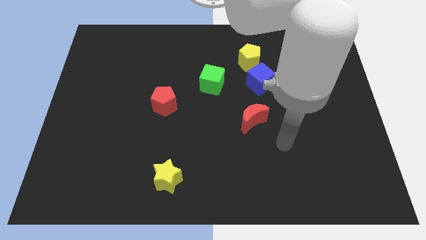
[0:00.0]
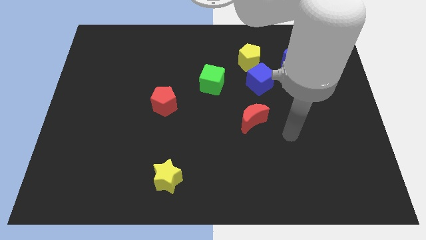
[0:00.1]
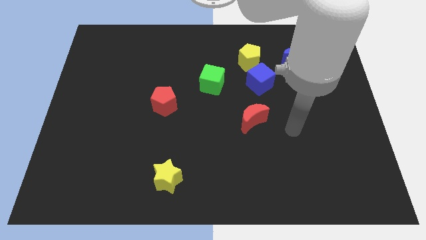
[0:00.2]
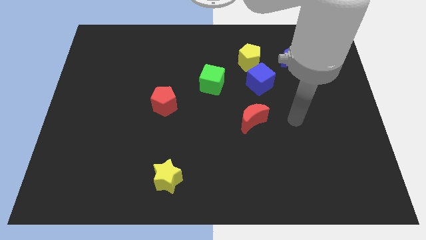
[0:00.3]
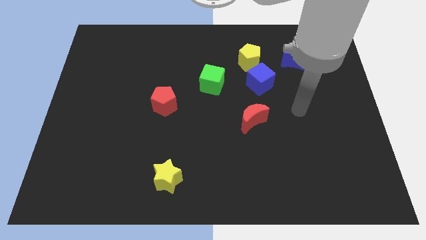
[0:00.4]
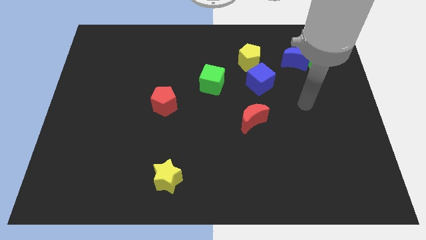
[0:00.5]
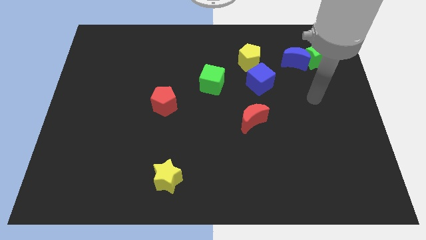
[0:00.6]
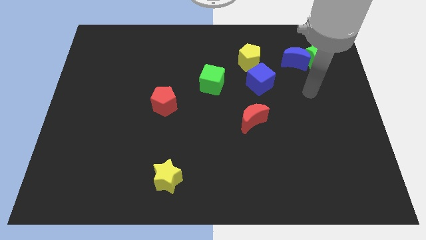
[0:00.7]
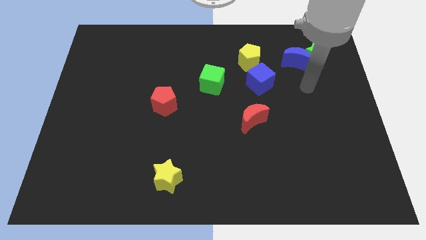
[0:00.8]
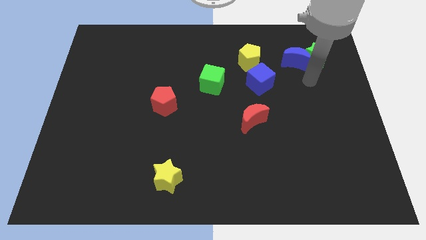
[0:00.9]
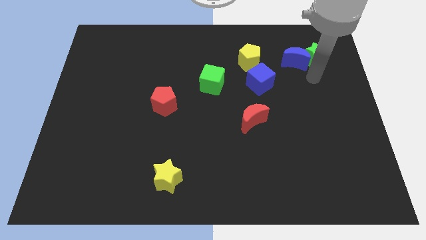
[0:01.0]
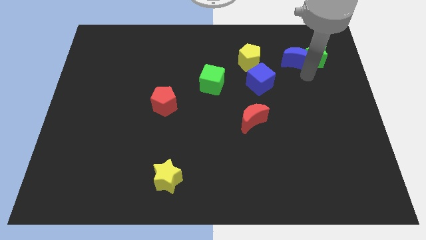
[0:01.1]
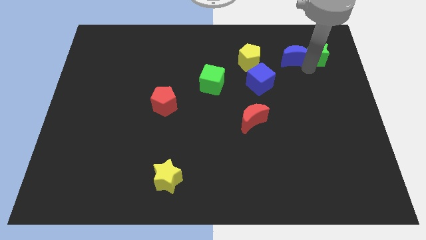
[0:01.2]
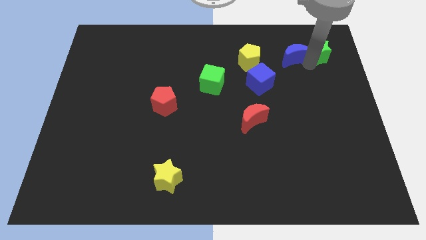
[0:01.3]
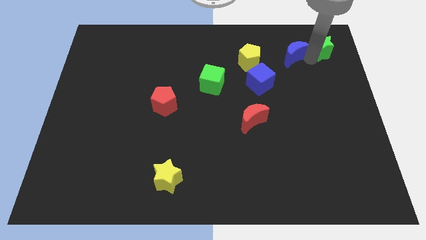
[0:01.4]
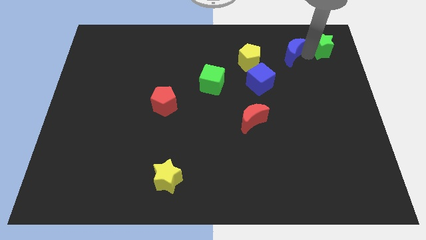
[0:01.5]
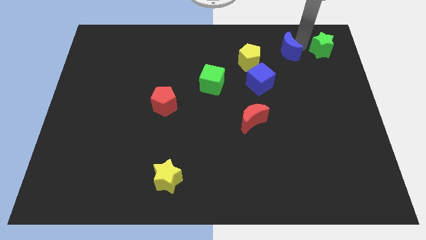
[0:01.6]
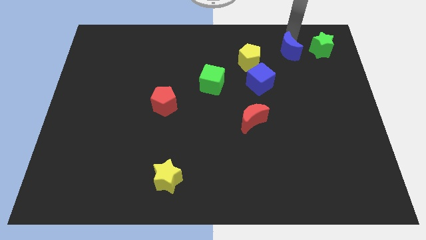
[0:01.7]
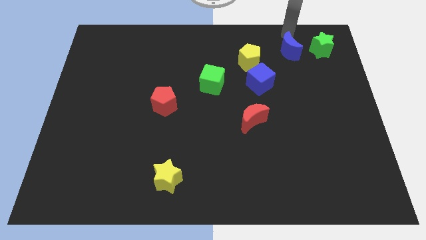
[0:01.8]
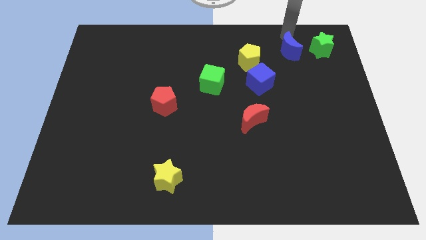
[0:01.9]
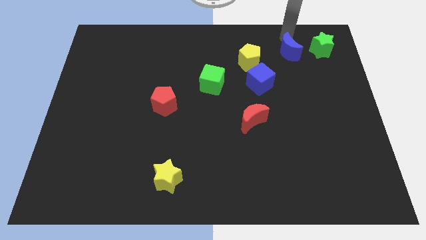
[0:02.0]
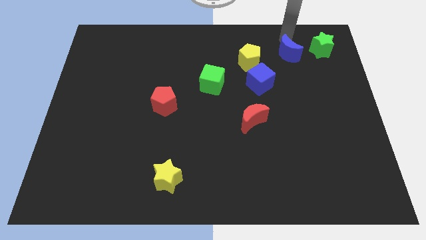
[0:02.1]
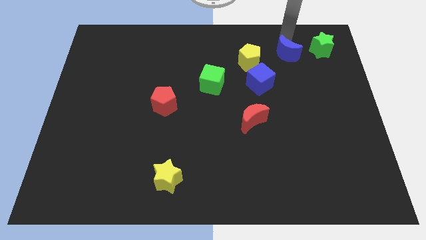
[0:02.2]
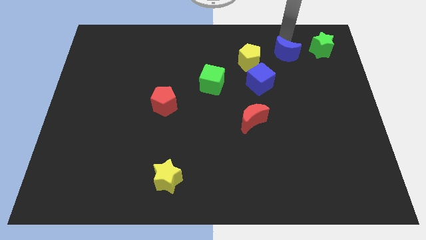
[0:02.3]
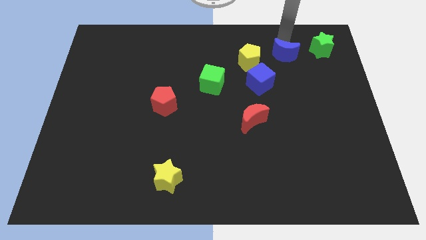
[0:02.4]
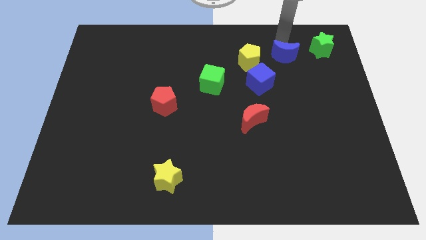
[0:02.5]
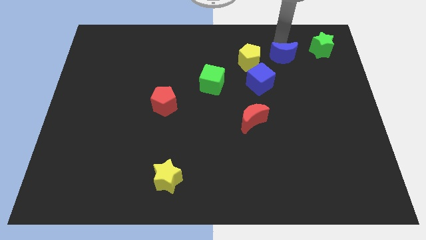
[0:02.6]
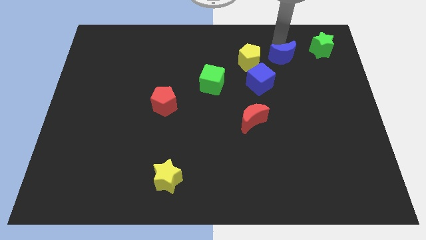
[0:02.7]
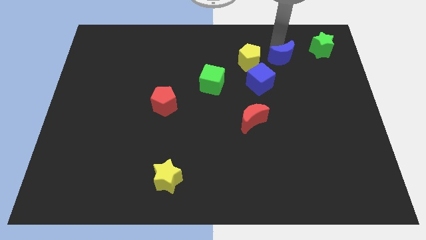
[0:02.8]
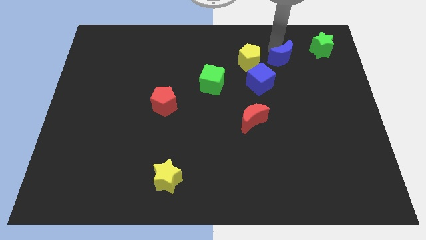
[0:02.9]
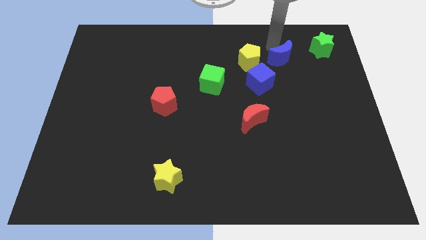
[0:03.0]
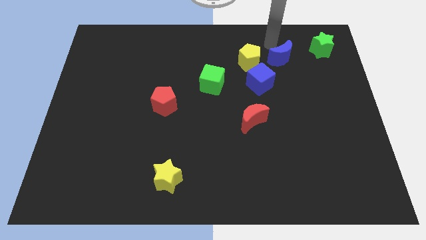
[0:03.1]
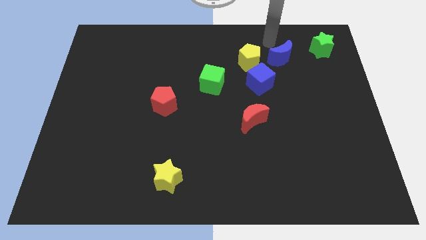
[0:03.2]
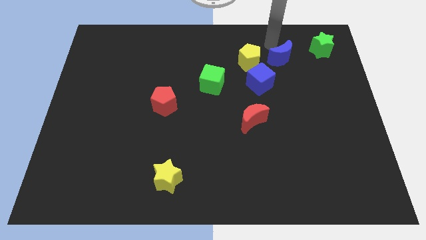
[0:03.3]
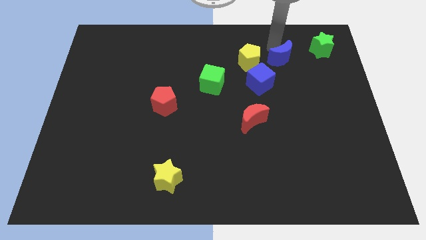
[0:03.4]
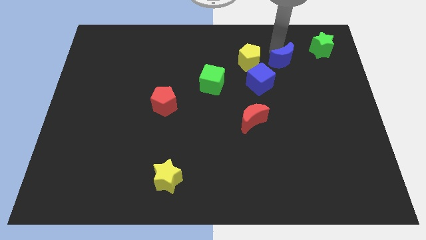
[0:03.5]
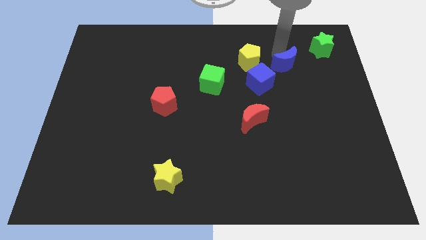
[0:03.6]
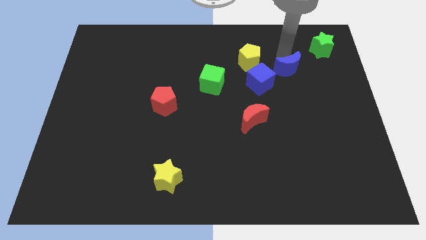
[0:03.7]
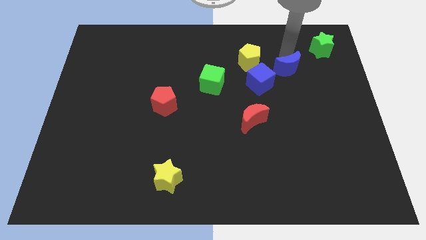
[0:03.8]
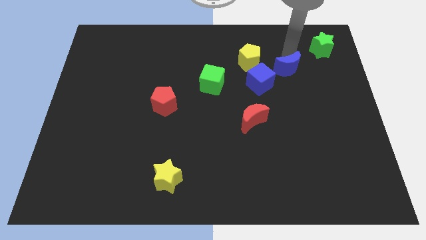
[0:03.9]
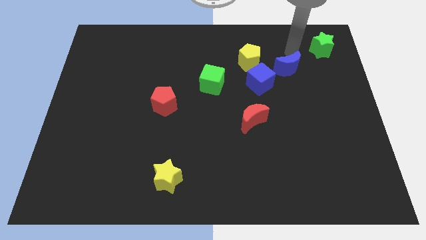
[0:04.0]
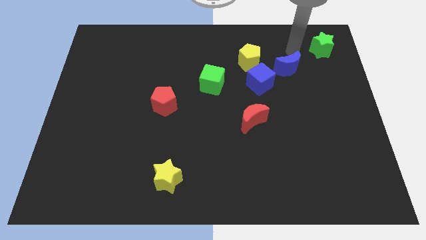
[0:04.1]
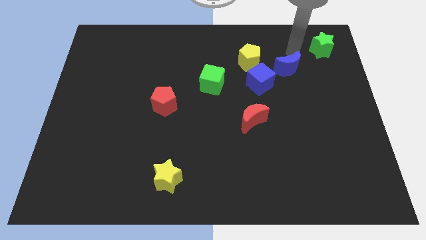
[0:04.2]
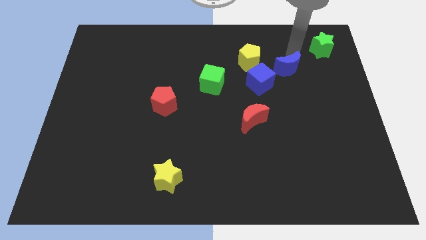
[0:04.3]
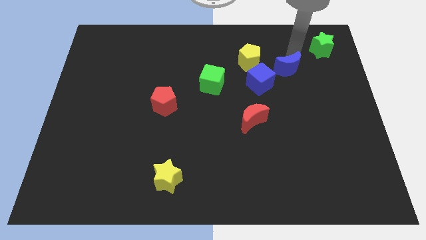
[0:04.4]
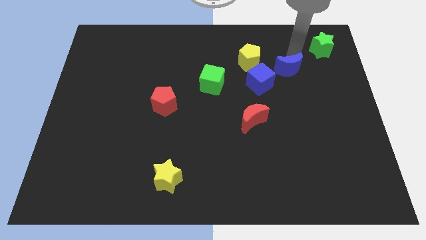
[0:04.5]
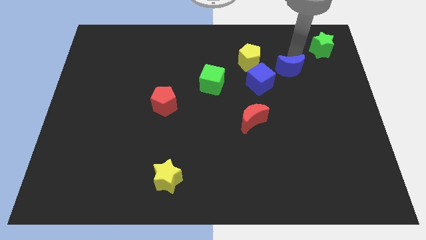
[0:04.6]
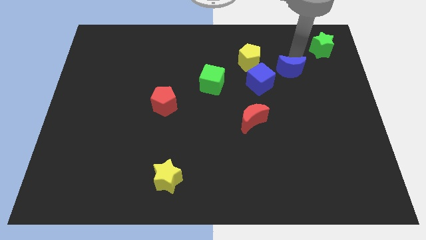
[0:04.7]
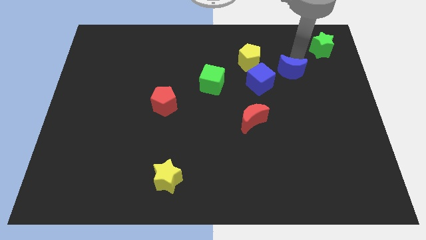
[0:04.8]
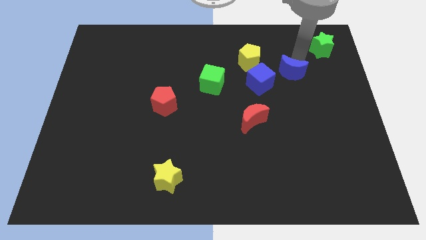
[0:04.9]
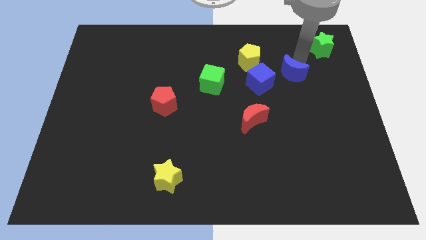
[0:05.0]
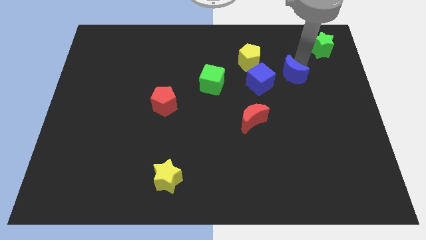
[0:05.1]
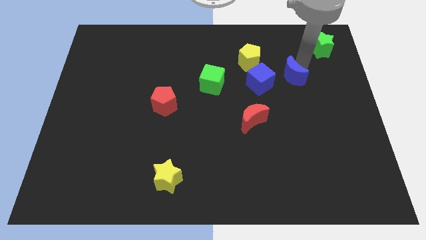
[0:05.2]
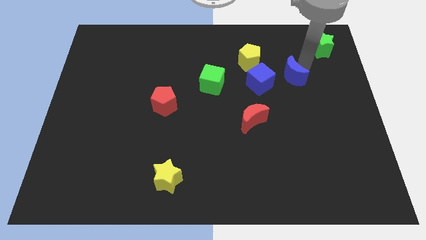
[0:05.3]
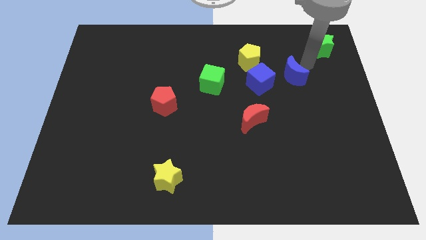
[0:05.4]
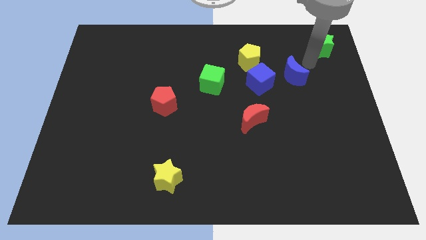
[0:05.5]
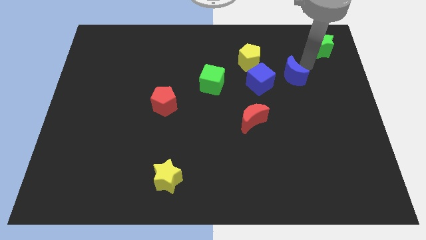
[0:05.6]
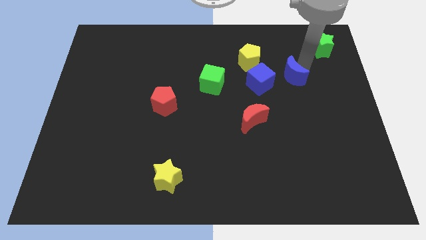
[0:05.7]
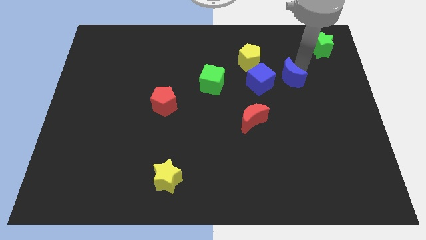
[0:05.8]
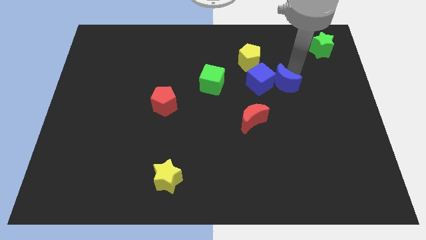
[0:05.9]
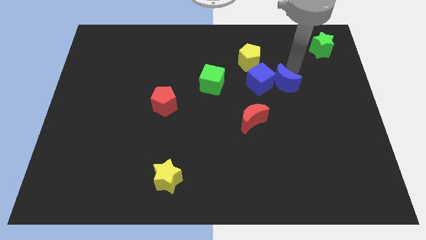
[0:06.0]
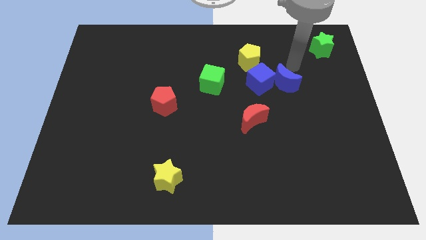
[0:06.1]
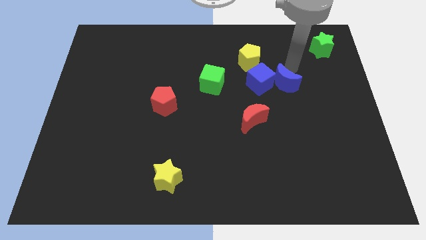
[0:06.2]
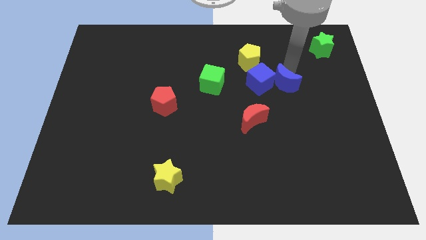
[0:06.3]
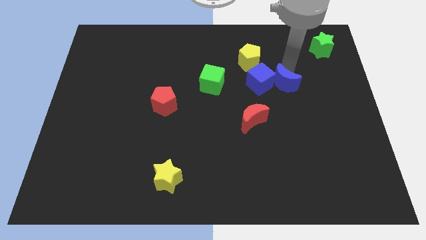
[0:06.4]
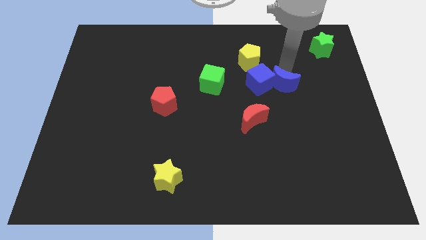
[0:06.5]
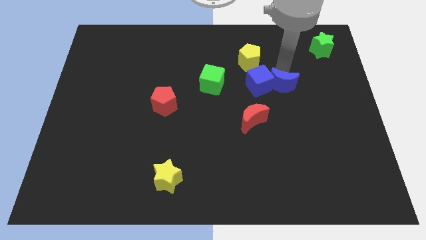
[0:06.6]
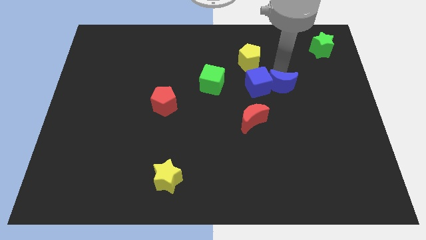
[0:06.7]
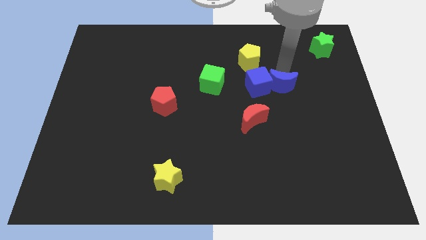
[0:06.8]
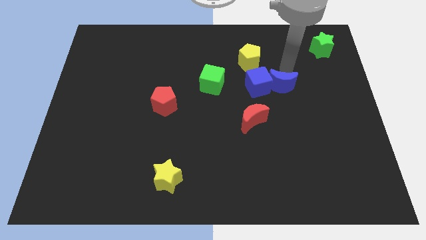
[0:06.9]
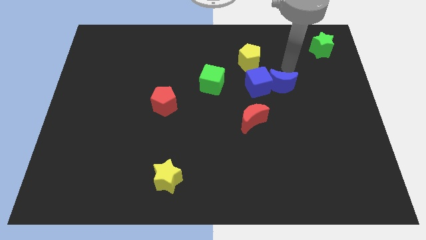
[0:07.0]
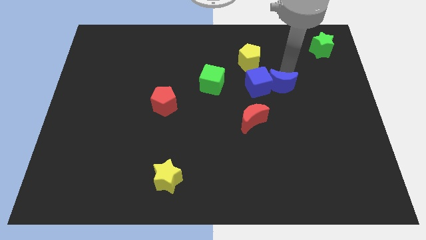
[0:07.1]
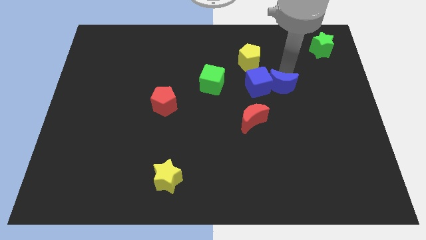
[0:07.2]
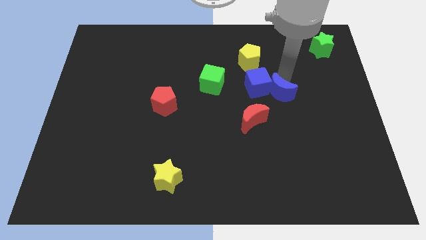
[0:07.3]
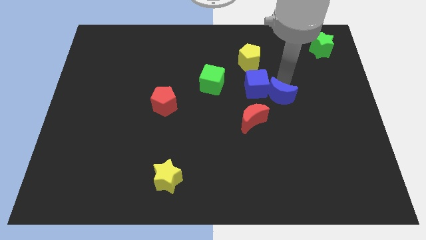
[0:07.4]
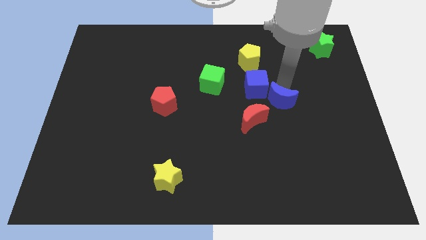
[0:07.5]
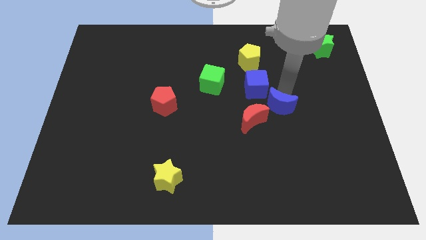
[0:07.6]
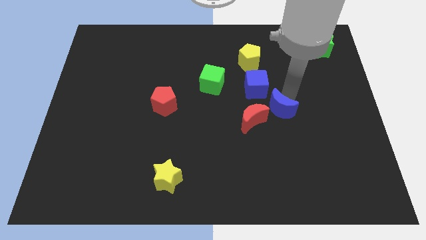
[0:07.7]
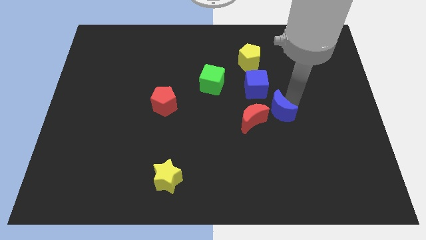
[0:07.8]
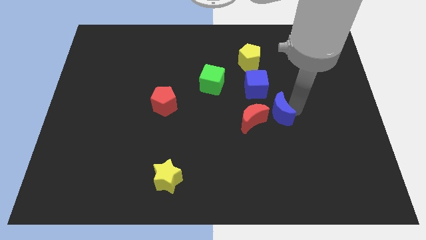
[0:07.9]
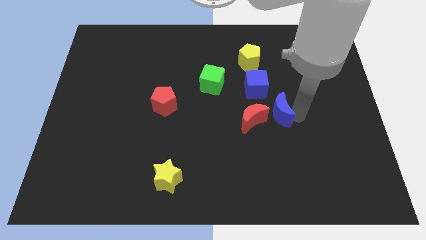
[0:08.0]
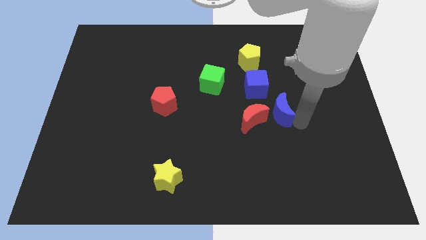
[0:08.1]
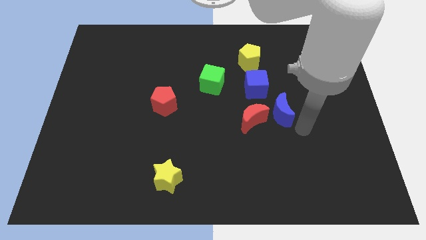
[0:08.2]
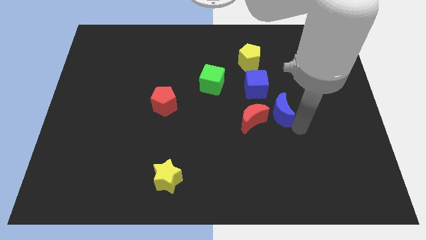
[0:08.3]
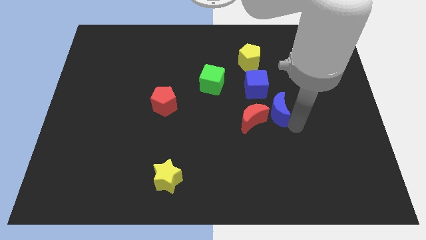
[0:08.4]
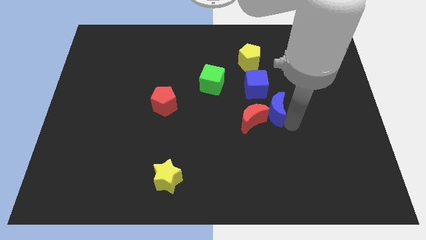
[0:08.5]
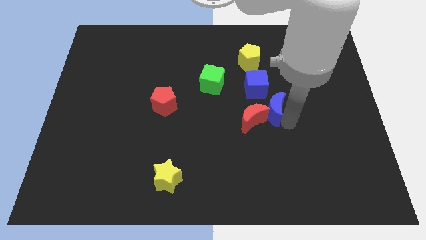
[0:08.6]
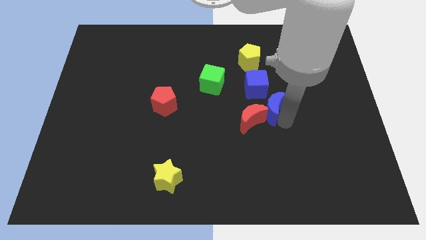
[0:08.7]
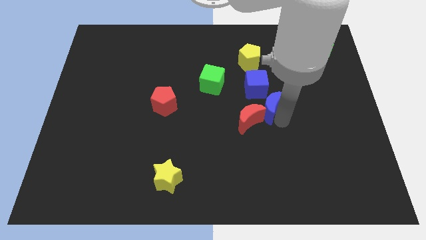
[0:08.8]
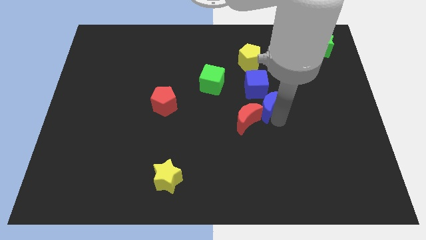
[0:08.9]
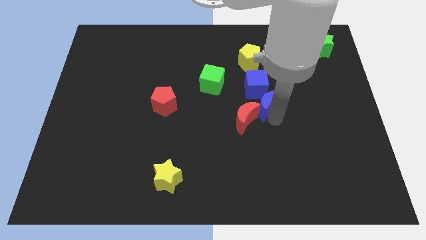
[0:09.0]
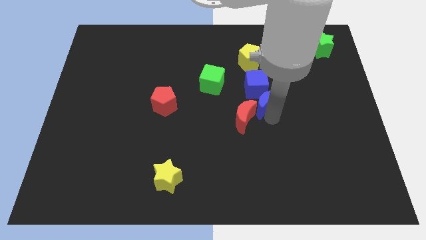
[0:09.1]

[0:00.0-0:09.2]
put the blue moon to the middle of the board
